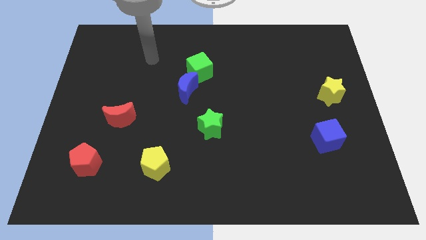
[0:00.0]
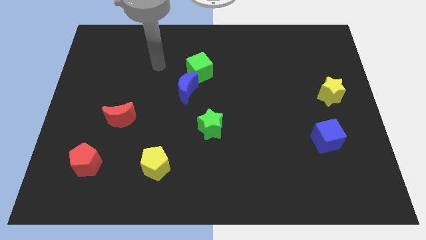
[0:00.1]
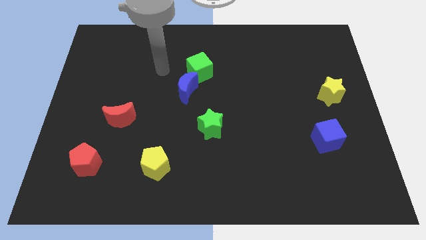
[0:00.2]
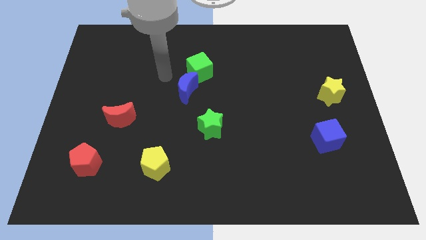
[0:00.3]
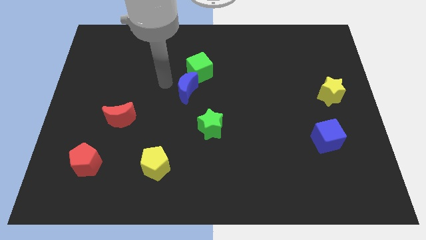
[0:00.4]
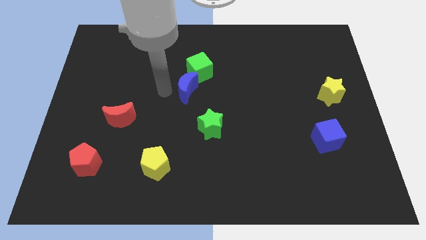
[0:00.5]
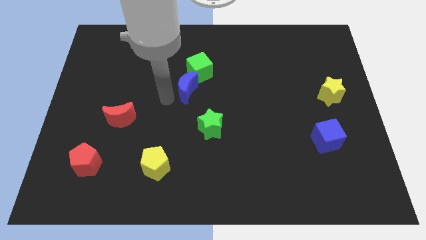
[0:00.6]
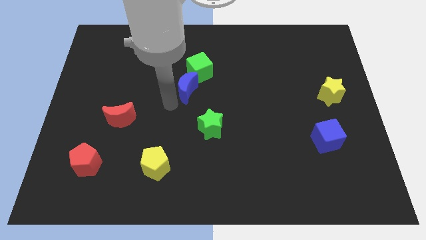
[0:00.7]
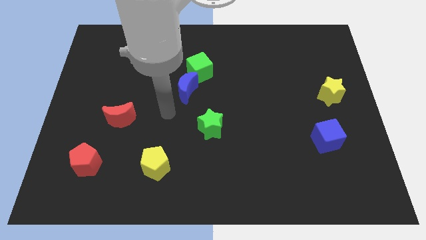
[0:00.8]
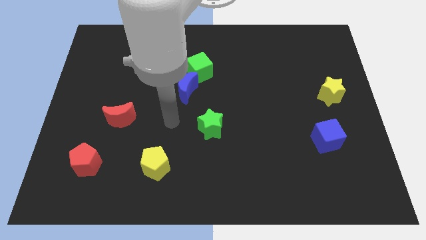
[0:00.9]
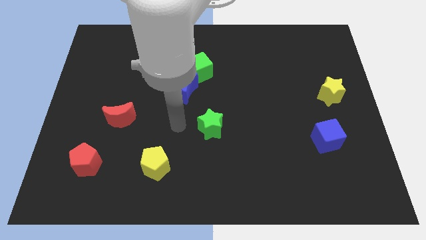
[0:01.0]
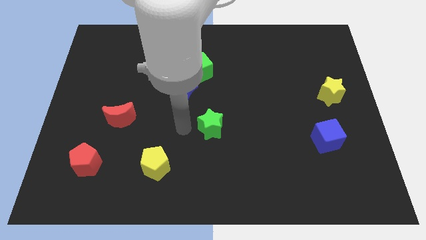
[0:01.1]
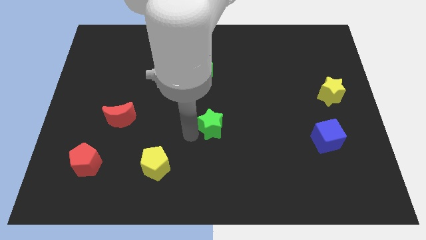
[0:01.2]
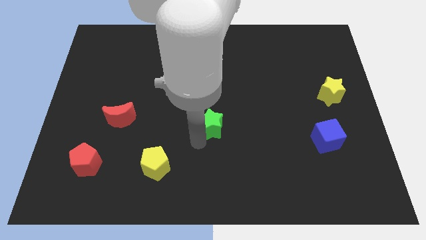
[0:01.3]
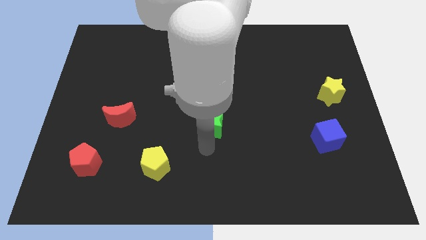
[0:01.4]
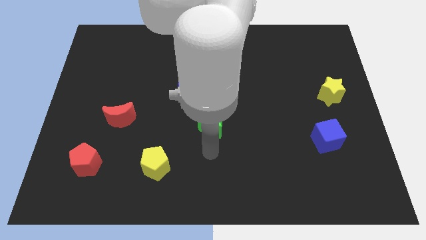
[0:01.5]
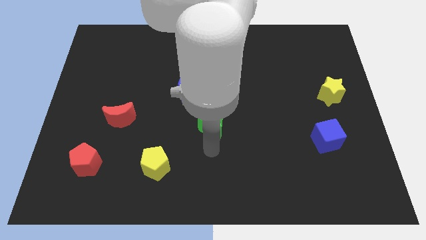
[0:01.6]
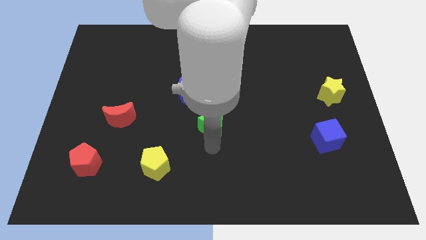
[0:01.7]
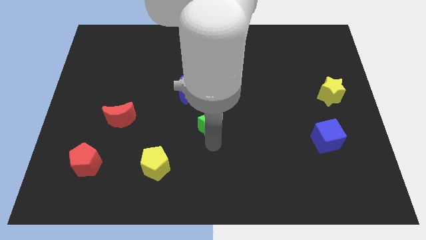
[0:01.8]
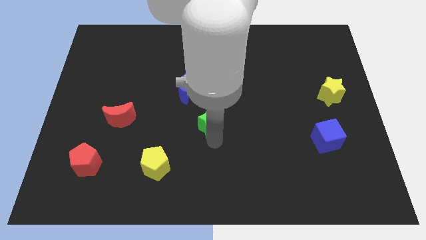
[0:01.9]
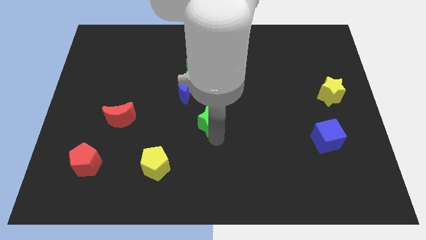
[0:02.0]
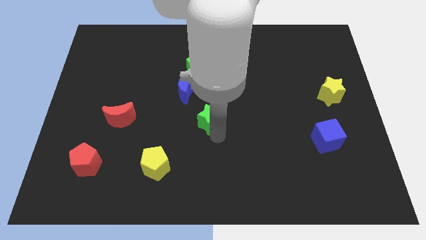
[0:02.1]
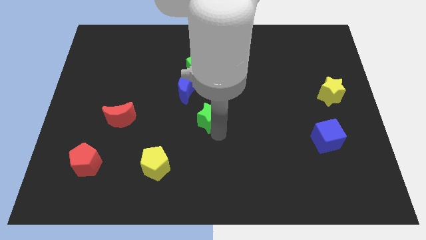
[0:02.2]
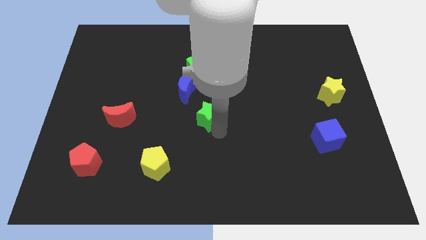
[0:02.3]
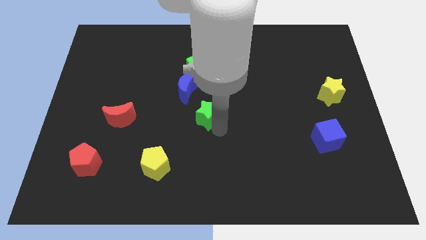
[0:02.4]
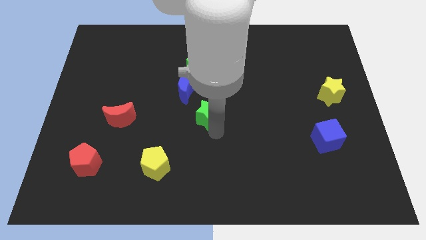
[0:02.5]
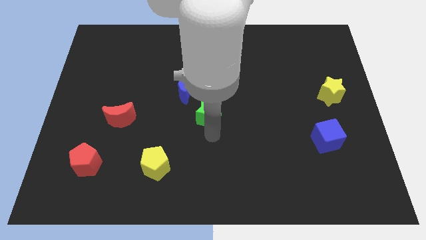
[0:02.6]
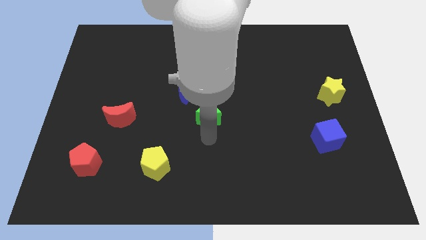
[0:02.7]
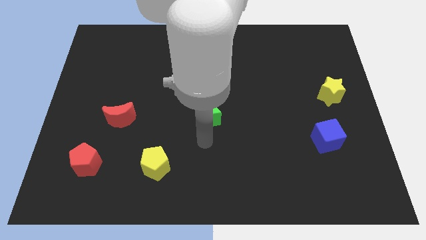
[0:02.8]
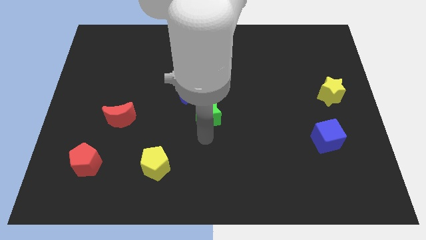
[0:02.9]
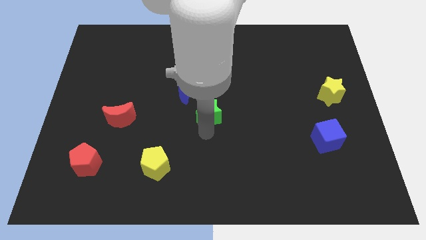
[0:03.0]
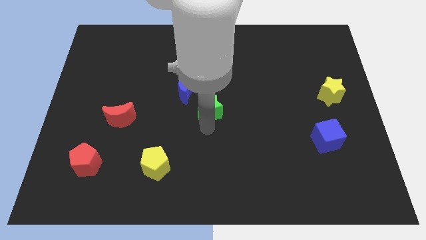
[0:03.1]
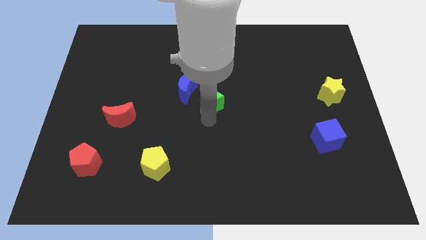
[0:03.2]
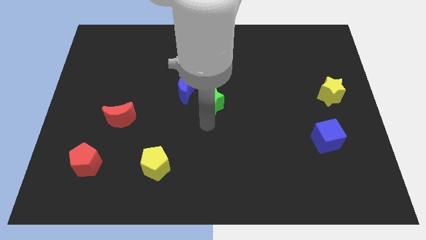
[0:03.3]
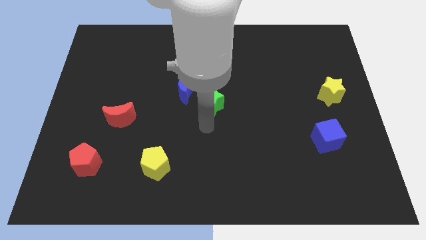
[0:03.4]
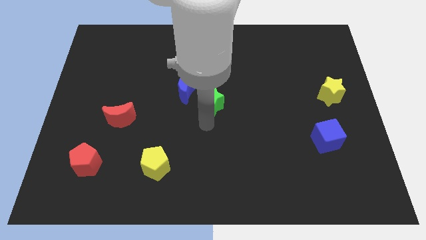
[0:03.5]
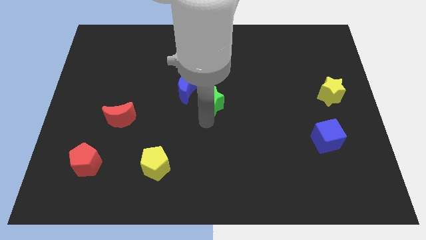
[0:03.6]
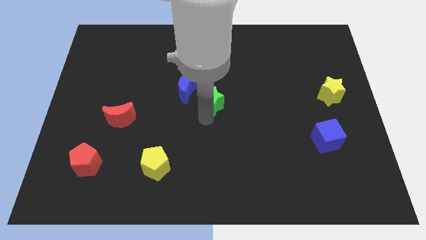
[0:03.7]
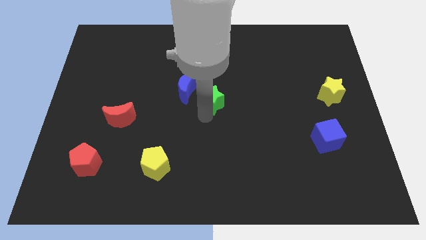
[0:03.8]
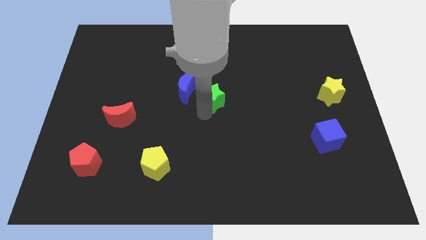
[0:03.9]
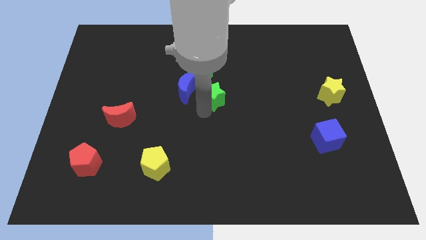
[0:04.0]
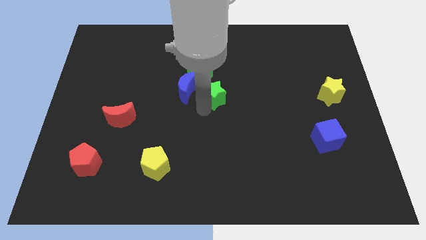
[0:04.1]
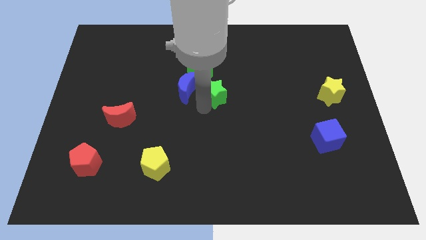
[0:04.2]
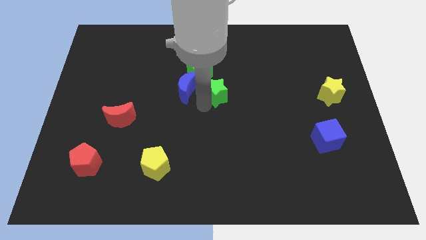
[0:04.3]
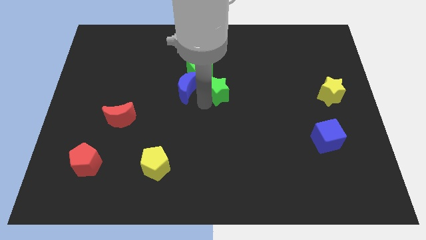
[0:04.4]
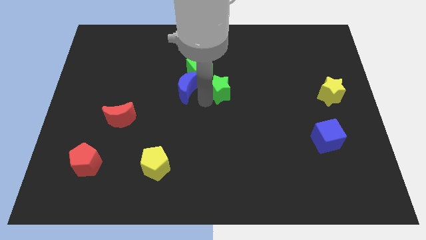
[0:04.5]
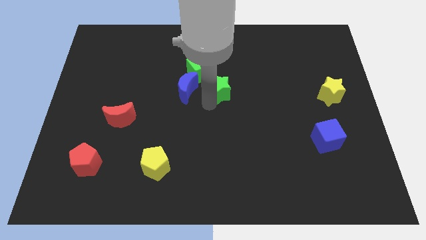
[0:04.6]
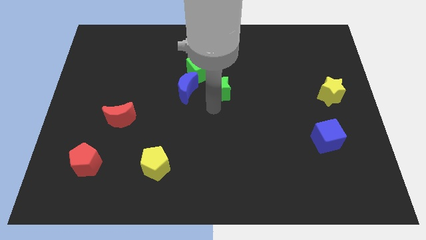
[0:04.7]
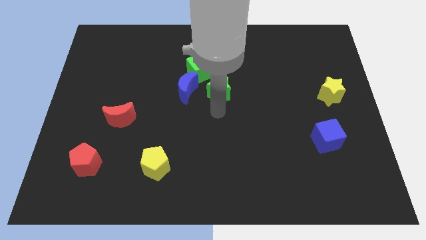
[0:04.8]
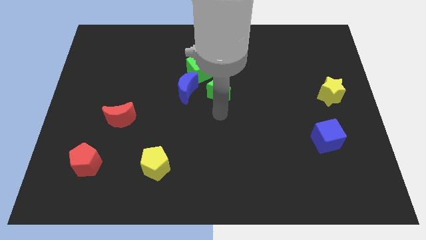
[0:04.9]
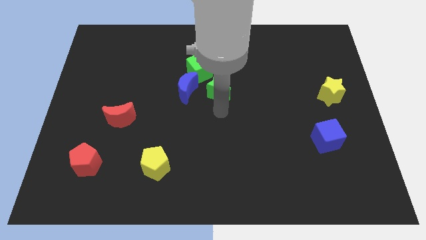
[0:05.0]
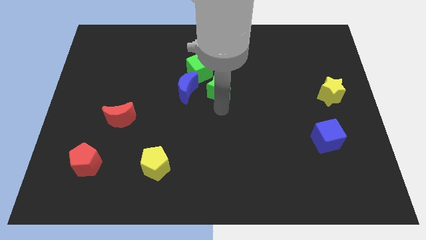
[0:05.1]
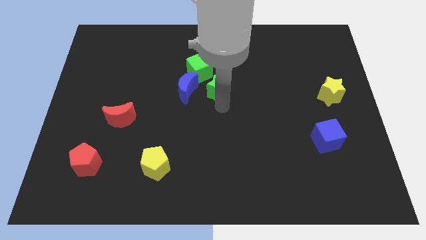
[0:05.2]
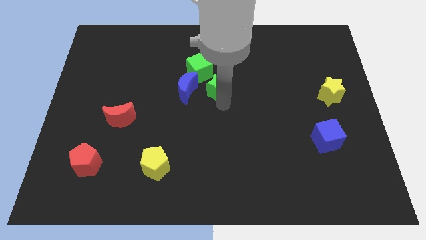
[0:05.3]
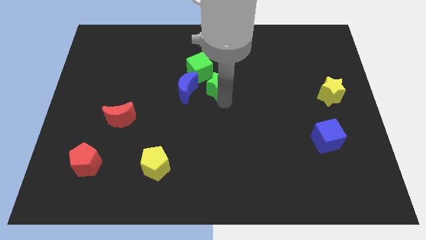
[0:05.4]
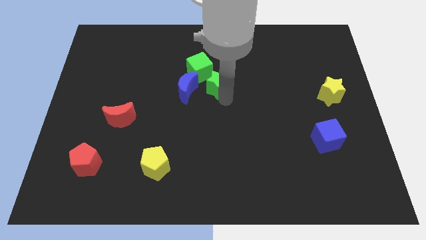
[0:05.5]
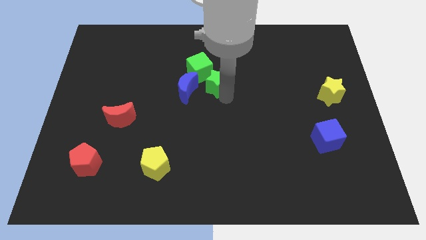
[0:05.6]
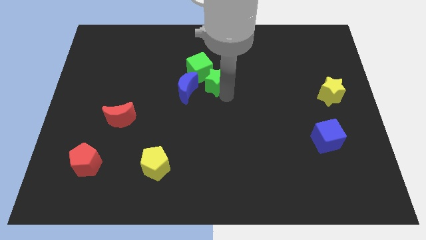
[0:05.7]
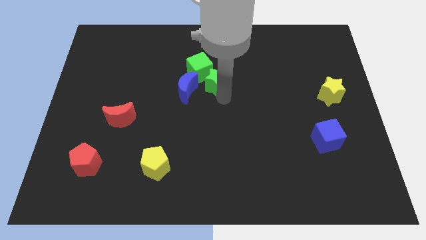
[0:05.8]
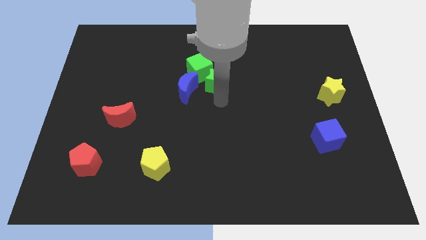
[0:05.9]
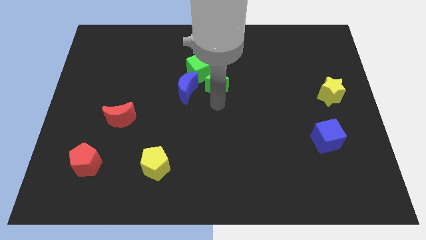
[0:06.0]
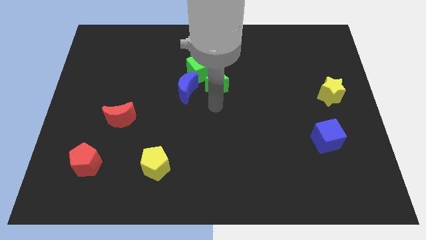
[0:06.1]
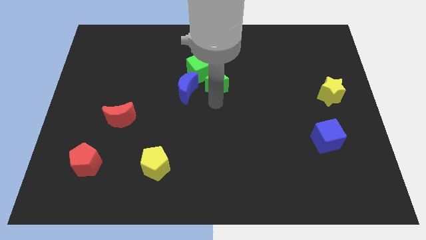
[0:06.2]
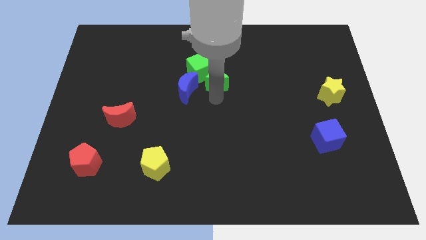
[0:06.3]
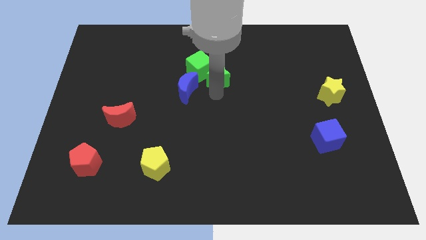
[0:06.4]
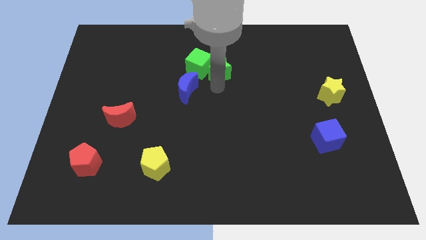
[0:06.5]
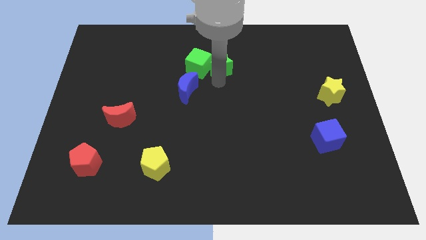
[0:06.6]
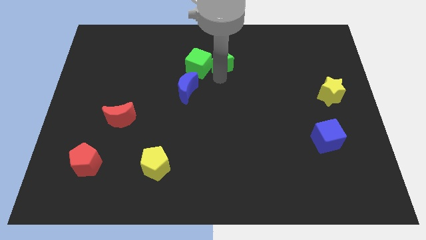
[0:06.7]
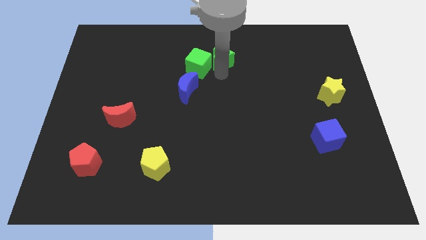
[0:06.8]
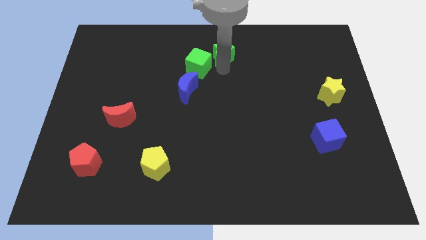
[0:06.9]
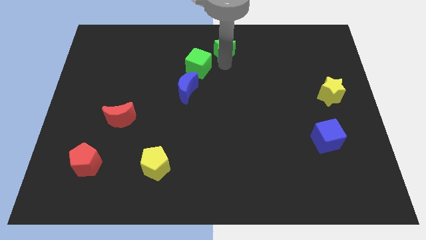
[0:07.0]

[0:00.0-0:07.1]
move the green star to the top side
